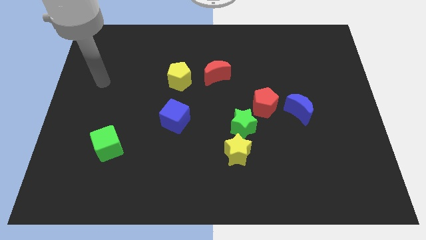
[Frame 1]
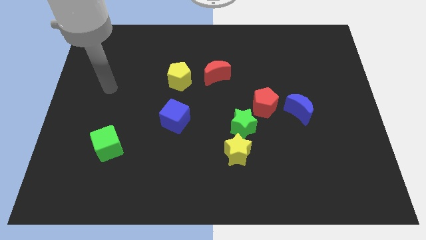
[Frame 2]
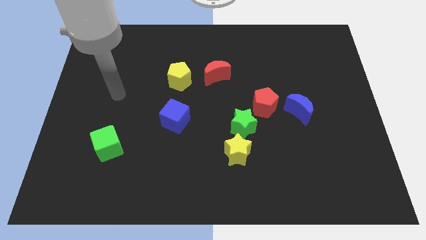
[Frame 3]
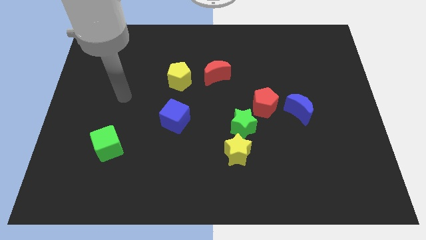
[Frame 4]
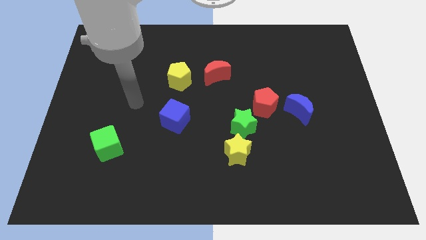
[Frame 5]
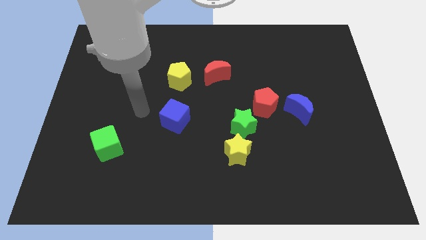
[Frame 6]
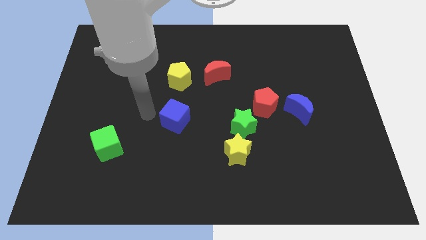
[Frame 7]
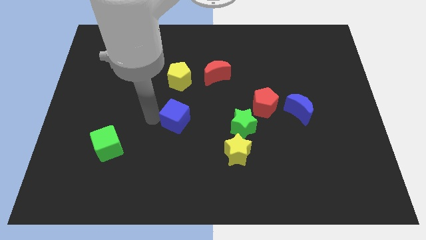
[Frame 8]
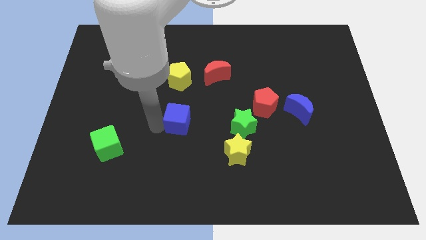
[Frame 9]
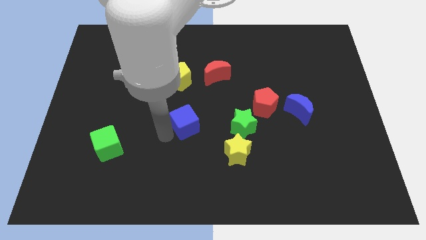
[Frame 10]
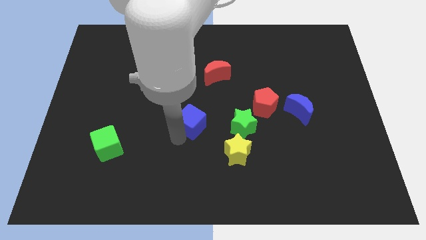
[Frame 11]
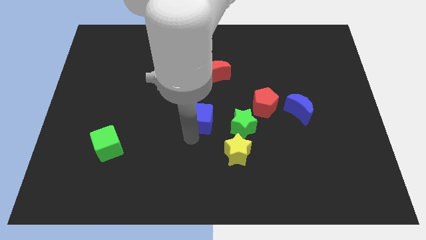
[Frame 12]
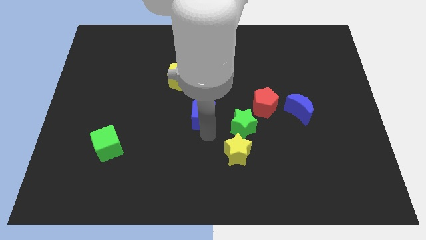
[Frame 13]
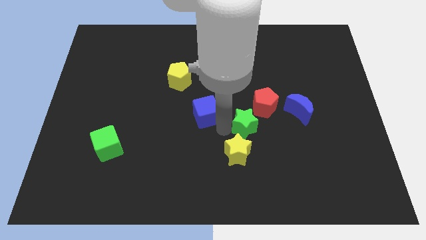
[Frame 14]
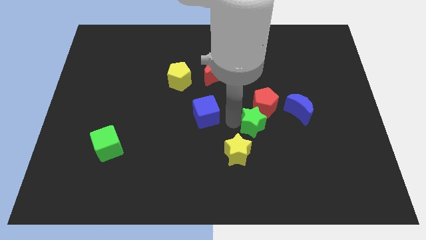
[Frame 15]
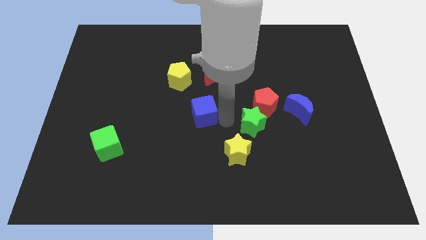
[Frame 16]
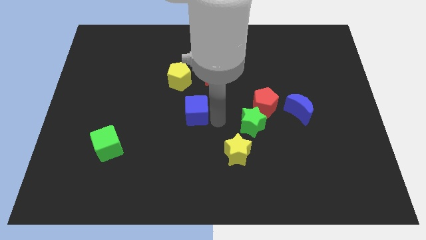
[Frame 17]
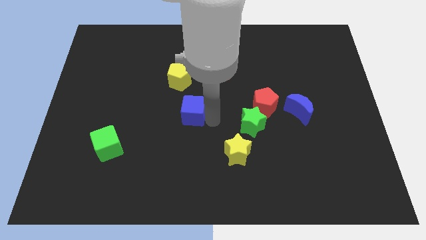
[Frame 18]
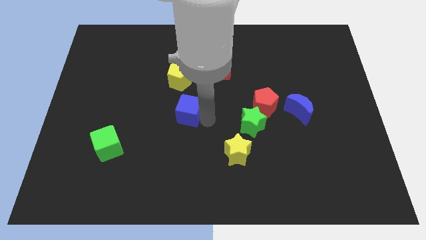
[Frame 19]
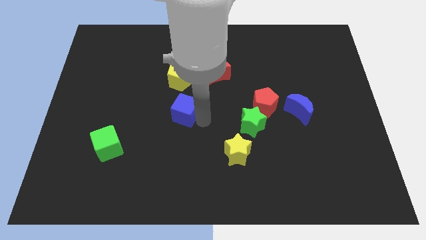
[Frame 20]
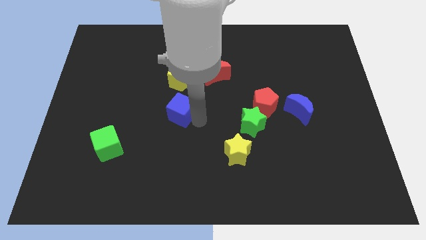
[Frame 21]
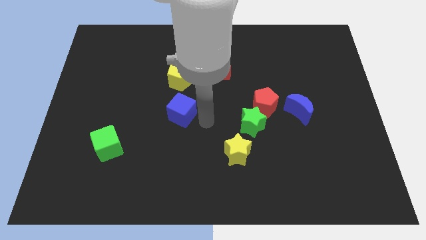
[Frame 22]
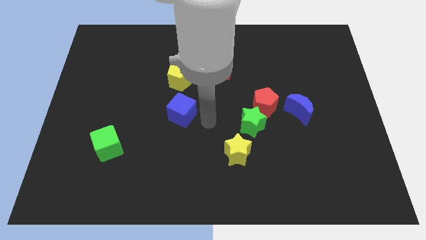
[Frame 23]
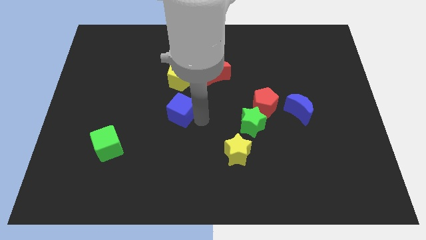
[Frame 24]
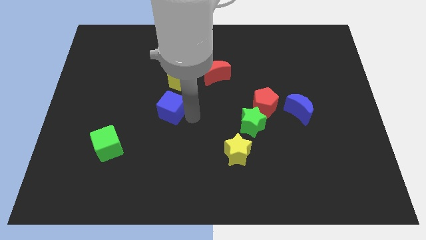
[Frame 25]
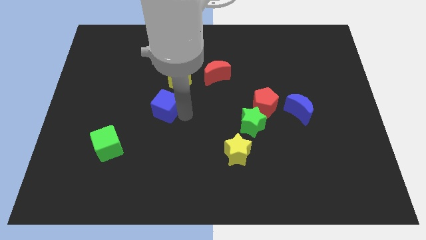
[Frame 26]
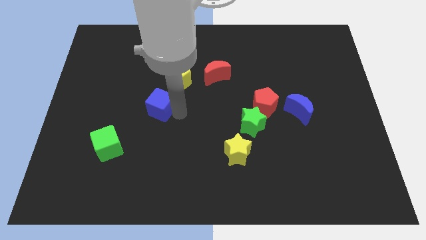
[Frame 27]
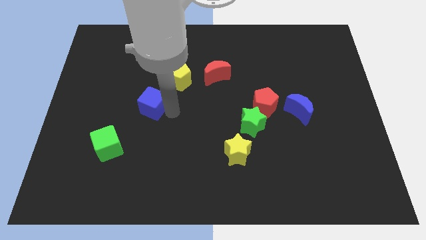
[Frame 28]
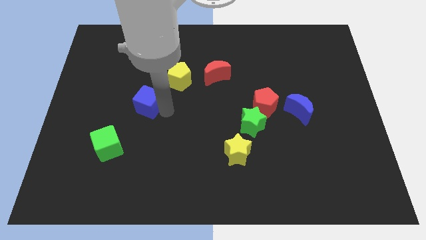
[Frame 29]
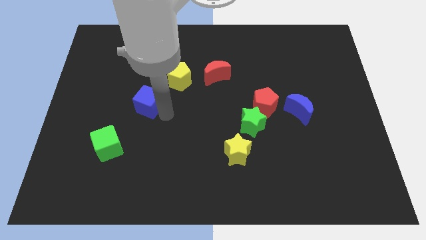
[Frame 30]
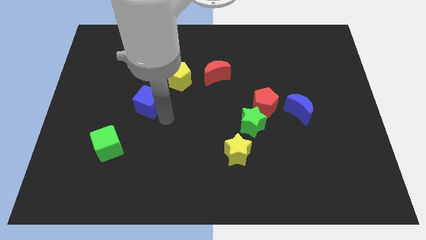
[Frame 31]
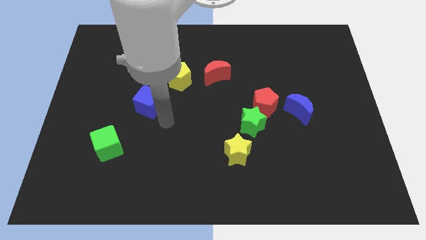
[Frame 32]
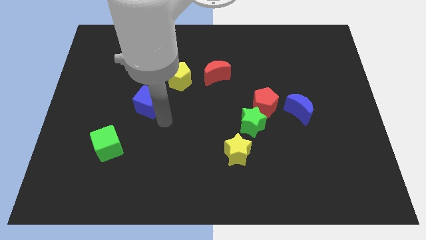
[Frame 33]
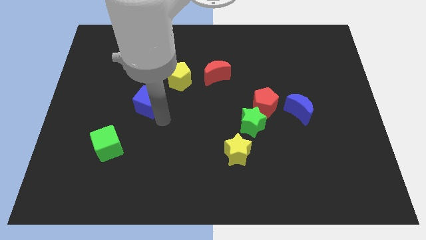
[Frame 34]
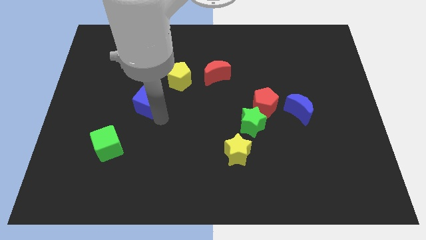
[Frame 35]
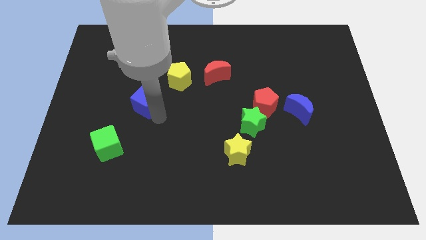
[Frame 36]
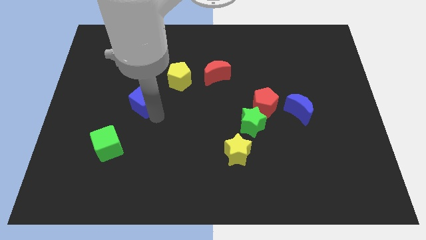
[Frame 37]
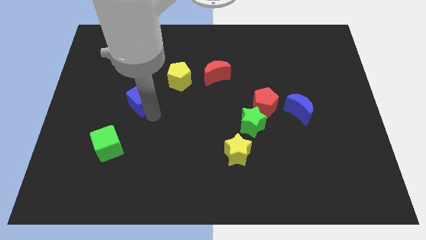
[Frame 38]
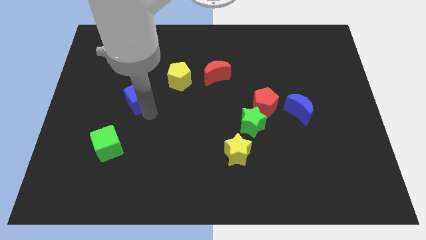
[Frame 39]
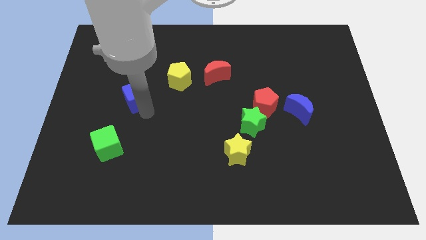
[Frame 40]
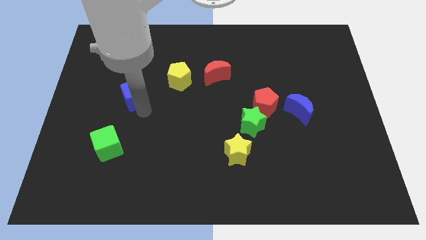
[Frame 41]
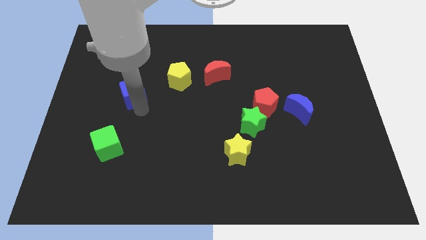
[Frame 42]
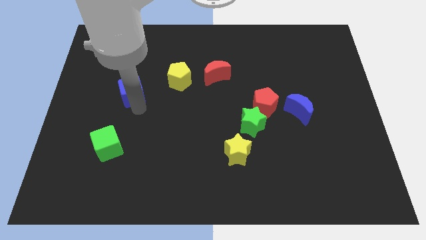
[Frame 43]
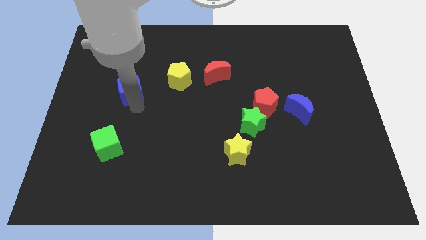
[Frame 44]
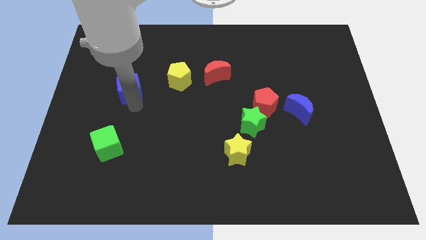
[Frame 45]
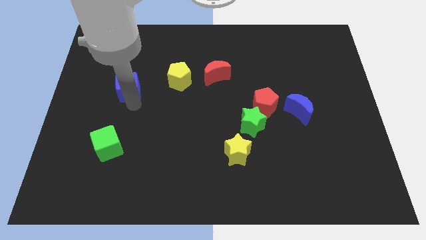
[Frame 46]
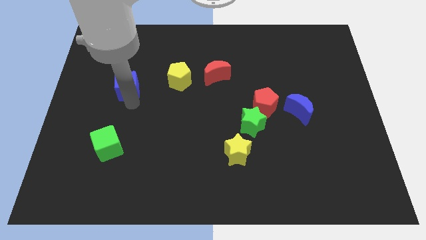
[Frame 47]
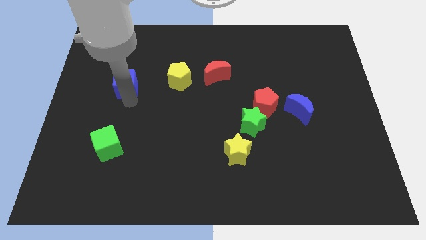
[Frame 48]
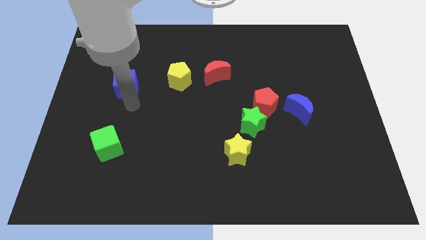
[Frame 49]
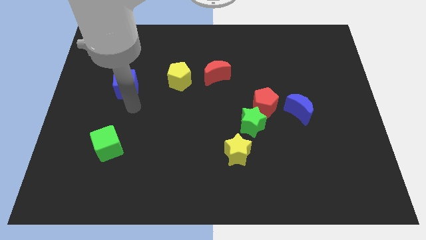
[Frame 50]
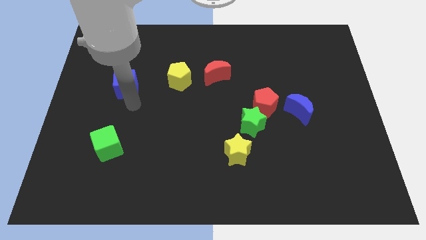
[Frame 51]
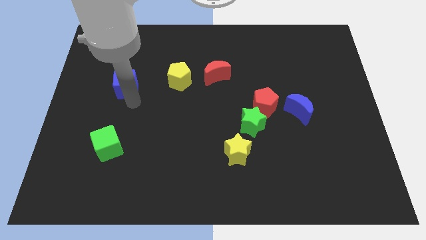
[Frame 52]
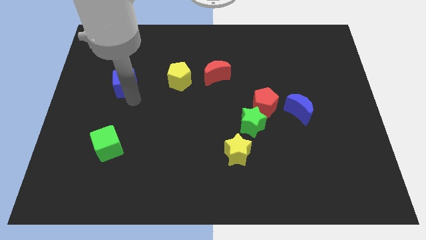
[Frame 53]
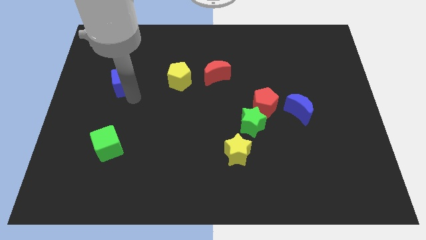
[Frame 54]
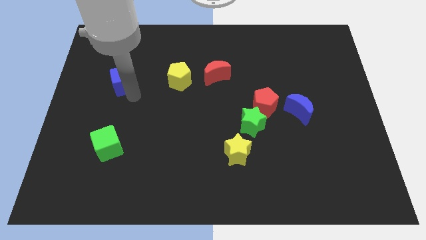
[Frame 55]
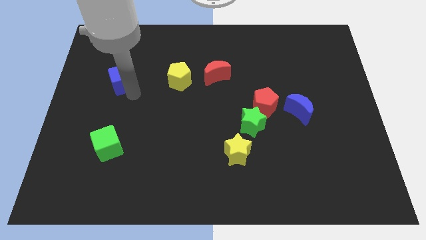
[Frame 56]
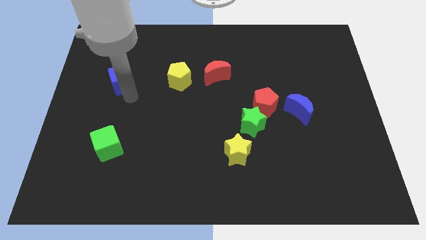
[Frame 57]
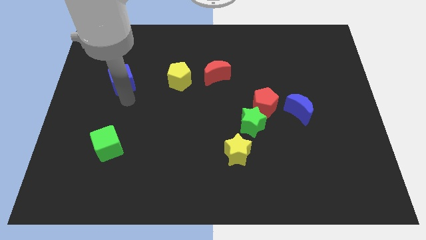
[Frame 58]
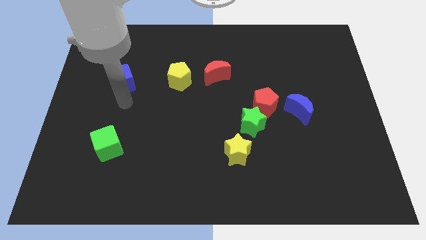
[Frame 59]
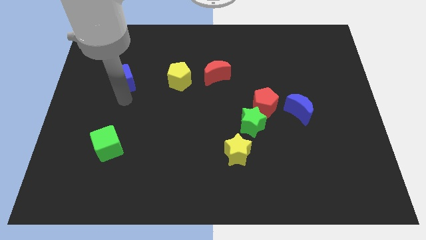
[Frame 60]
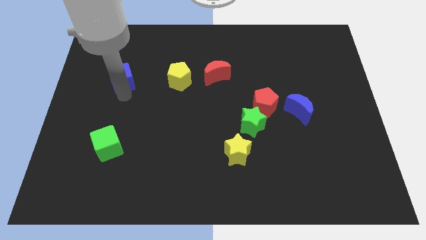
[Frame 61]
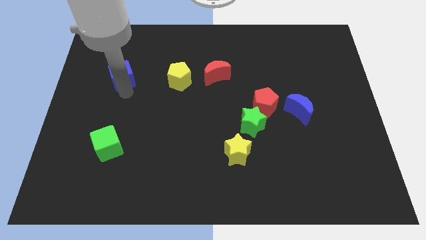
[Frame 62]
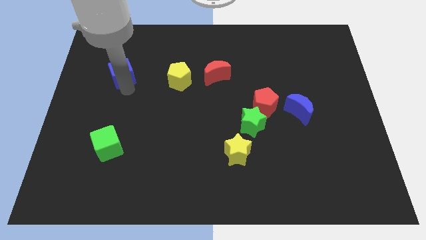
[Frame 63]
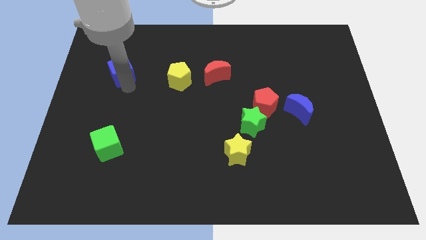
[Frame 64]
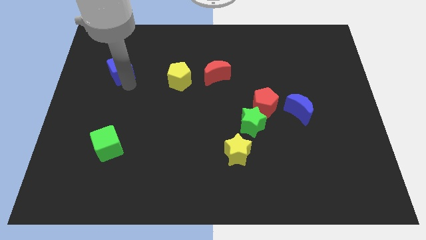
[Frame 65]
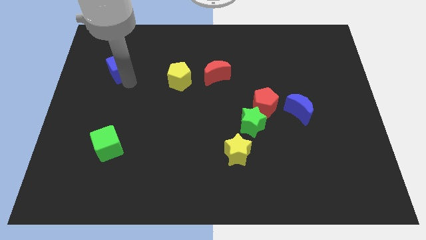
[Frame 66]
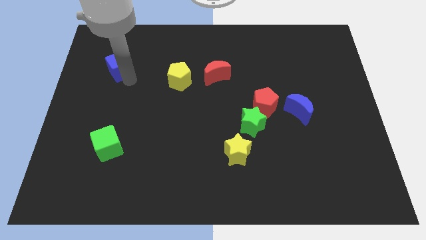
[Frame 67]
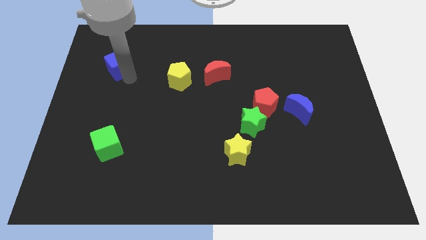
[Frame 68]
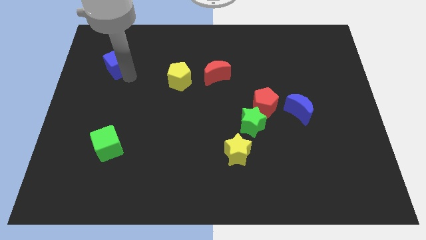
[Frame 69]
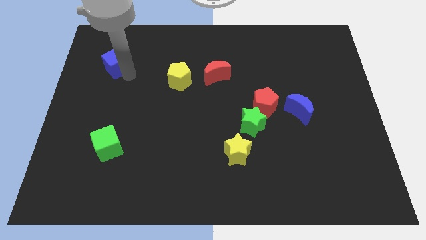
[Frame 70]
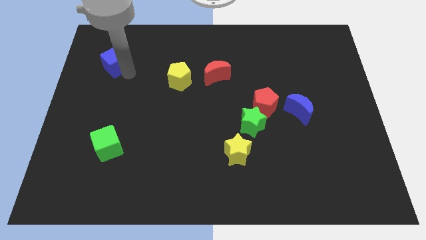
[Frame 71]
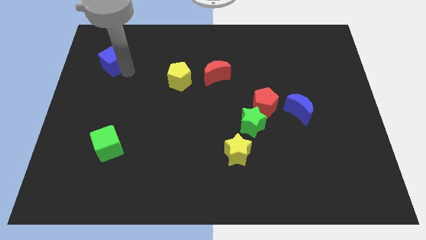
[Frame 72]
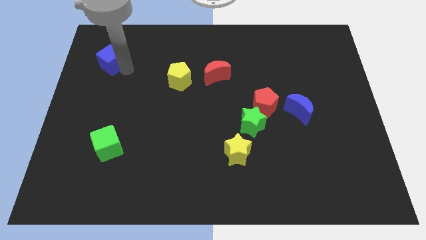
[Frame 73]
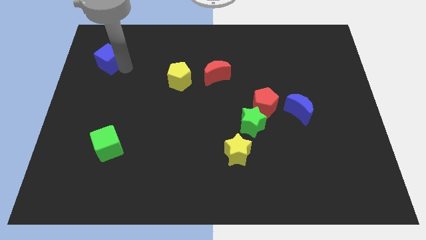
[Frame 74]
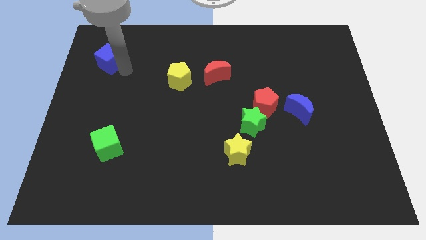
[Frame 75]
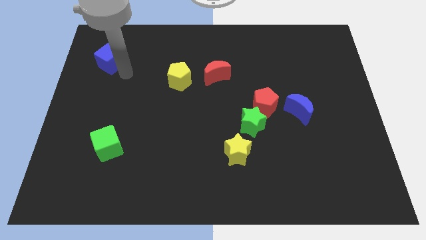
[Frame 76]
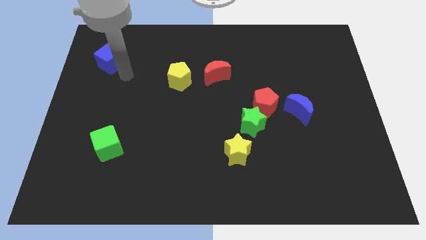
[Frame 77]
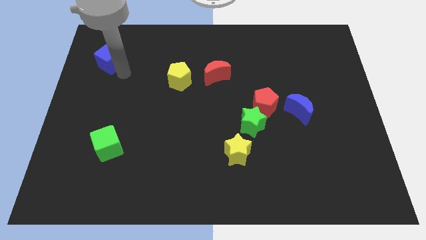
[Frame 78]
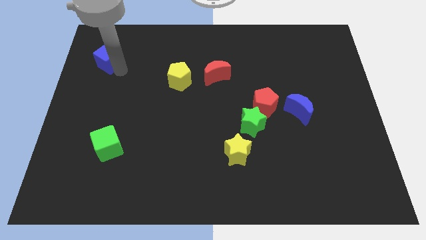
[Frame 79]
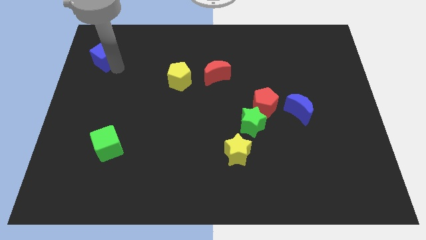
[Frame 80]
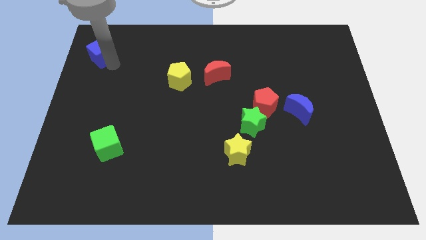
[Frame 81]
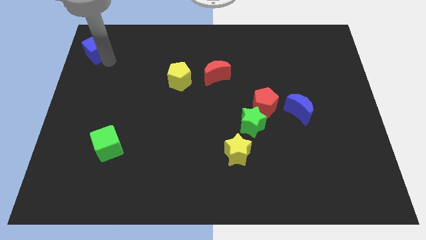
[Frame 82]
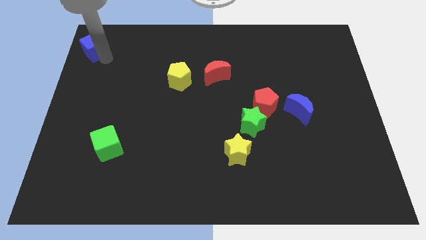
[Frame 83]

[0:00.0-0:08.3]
push the blue cube to the top left of the board
